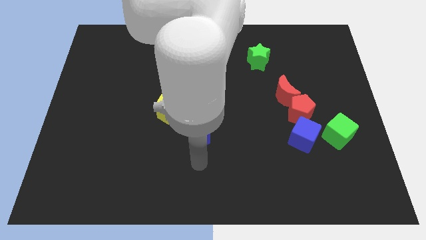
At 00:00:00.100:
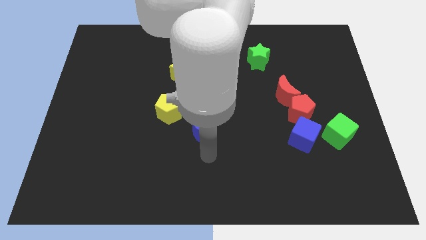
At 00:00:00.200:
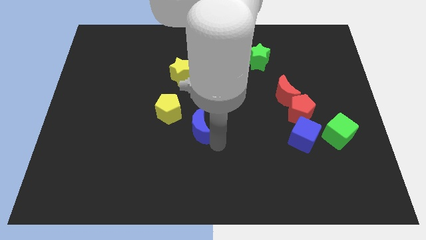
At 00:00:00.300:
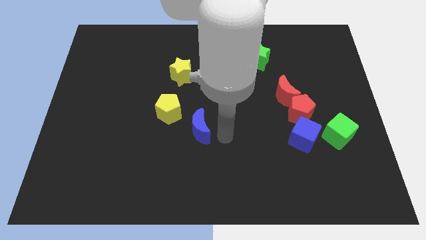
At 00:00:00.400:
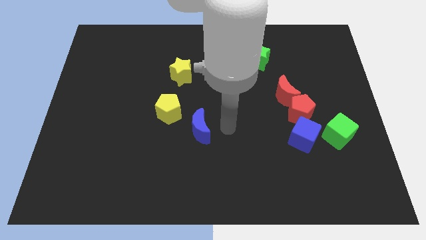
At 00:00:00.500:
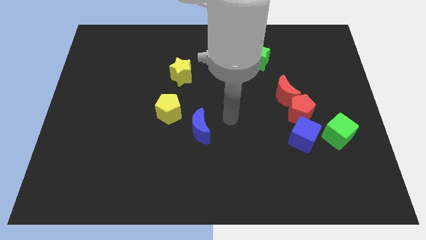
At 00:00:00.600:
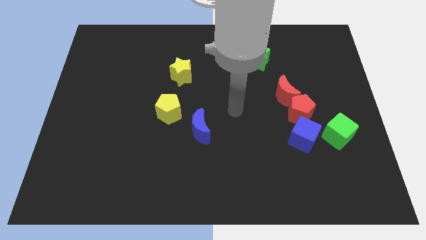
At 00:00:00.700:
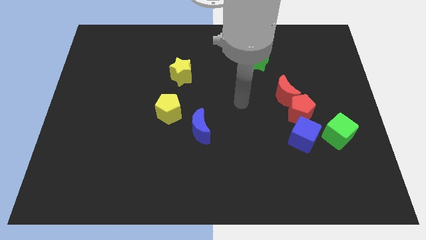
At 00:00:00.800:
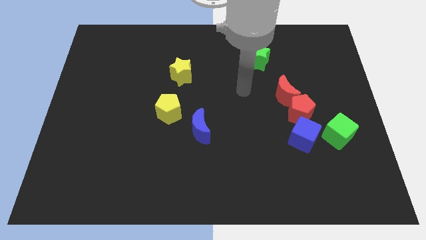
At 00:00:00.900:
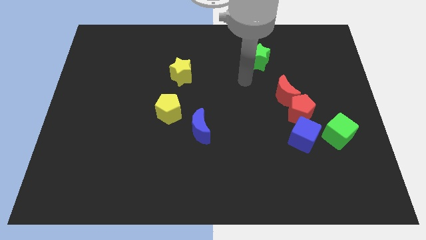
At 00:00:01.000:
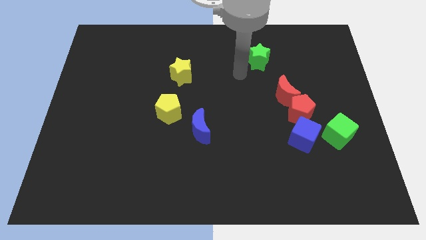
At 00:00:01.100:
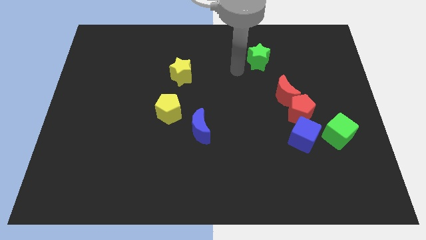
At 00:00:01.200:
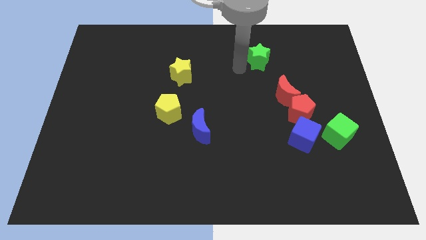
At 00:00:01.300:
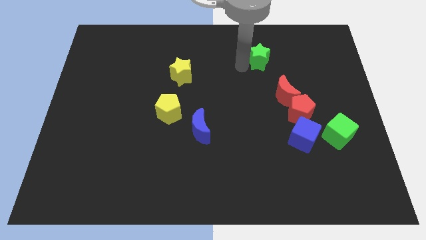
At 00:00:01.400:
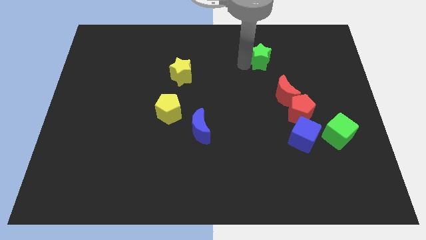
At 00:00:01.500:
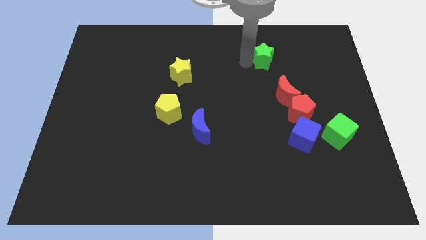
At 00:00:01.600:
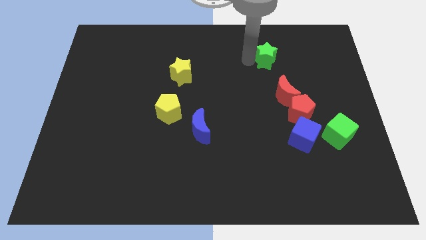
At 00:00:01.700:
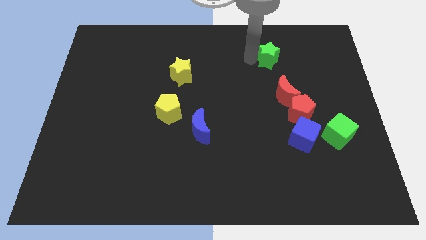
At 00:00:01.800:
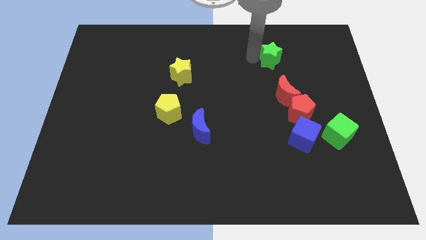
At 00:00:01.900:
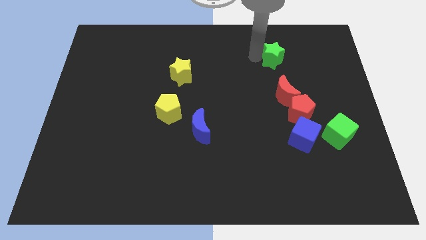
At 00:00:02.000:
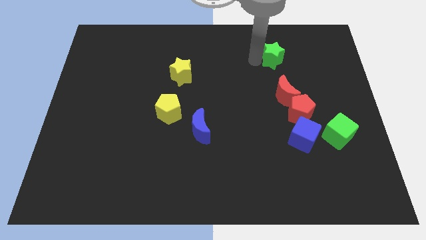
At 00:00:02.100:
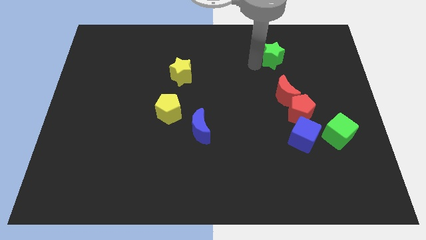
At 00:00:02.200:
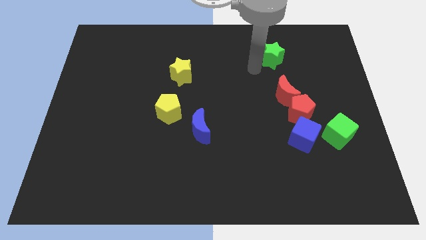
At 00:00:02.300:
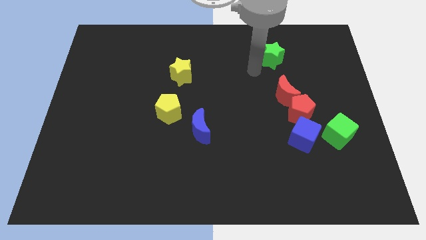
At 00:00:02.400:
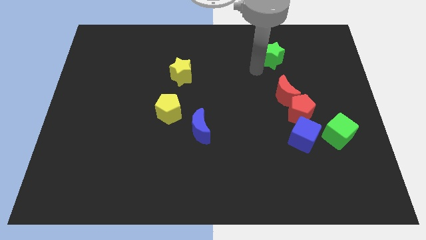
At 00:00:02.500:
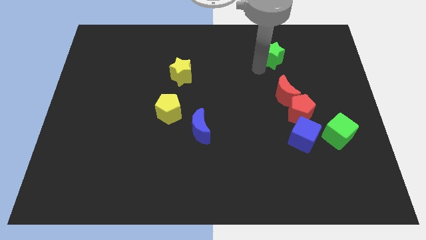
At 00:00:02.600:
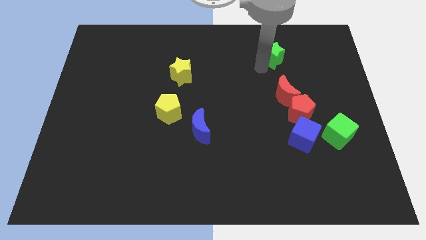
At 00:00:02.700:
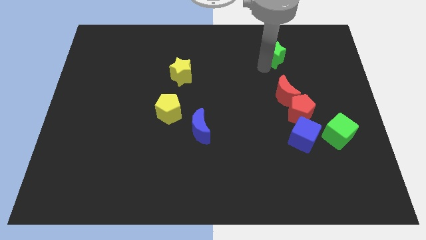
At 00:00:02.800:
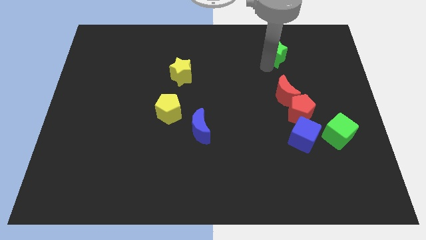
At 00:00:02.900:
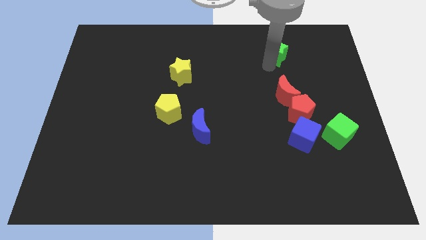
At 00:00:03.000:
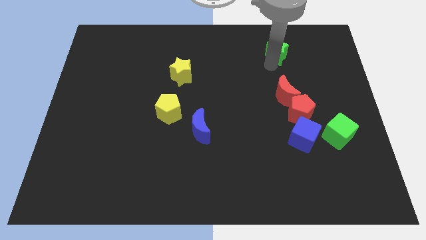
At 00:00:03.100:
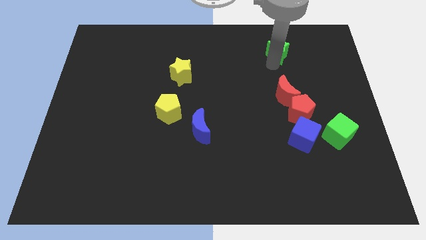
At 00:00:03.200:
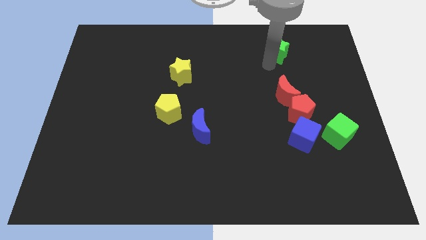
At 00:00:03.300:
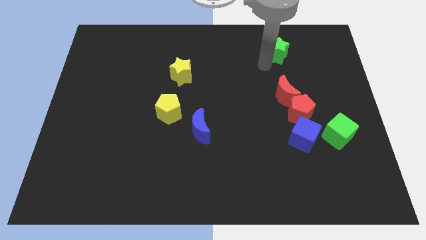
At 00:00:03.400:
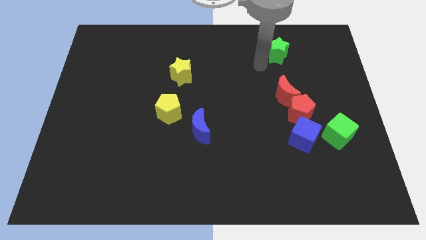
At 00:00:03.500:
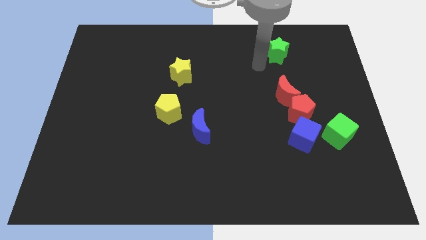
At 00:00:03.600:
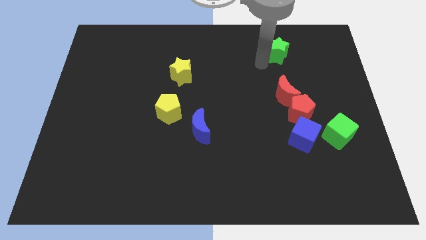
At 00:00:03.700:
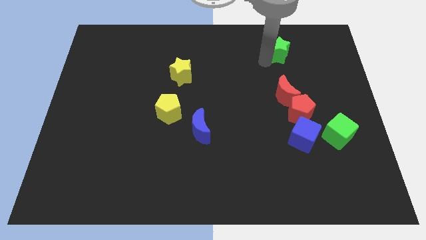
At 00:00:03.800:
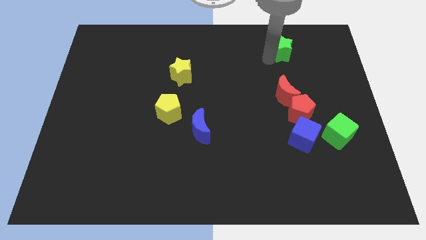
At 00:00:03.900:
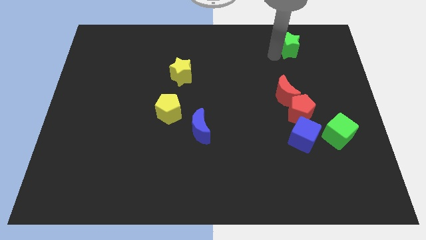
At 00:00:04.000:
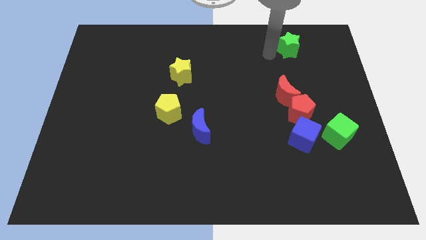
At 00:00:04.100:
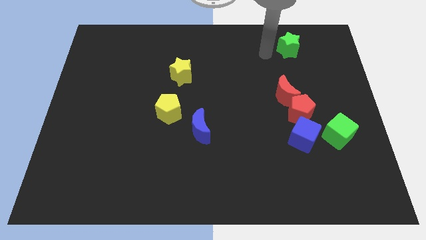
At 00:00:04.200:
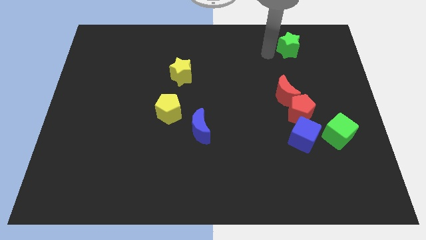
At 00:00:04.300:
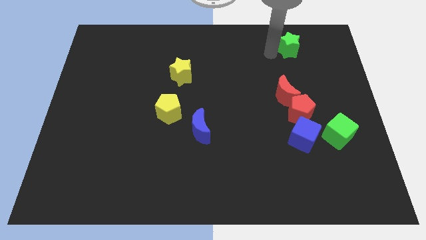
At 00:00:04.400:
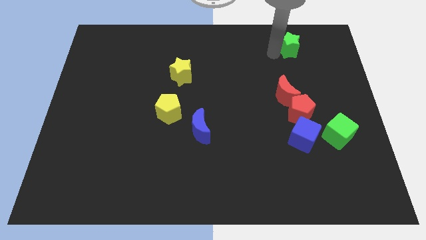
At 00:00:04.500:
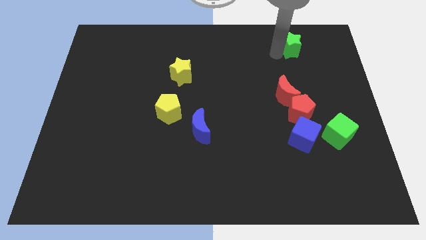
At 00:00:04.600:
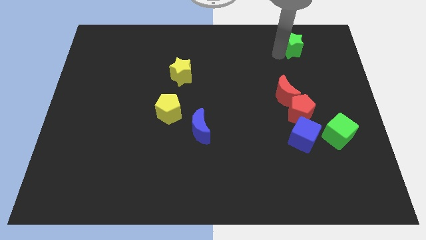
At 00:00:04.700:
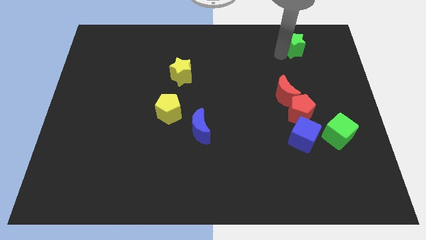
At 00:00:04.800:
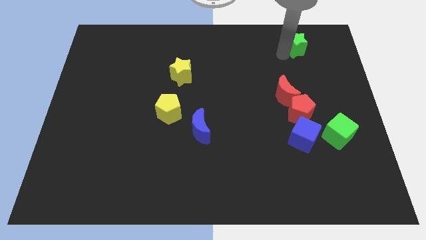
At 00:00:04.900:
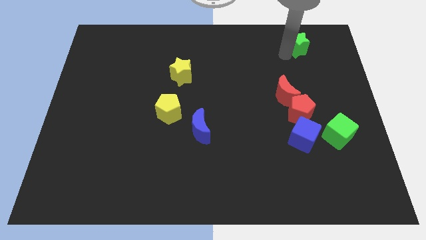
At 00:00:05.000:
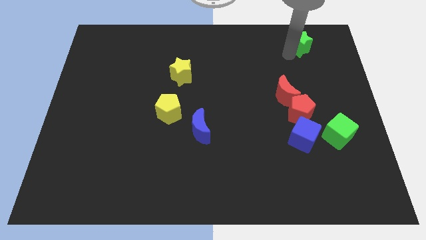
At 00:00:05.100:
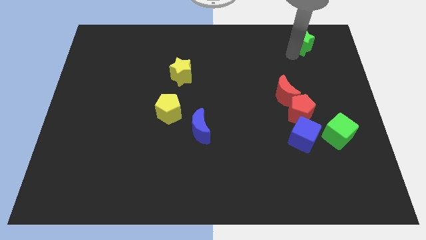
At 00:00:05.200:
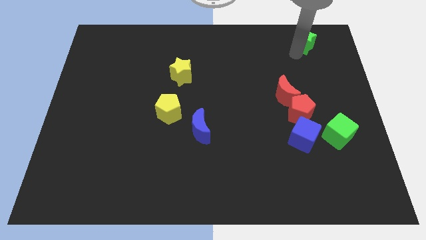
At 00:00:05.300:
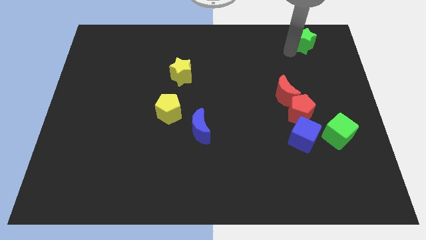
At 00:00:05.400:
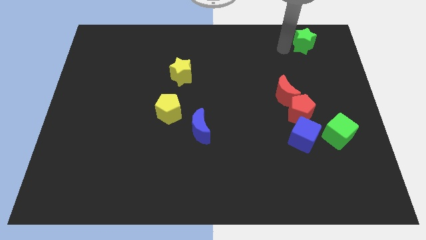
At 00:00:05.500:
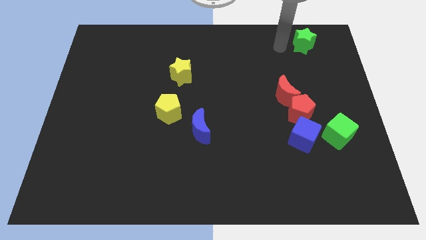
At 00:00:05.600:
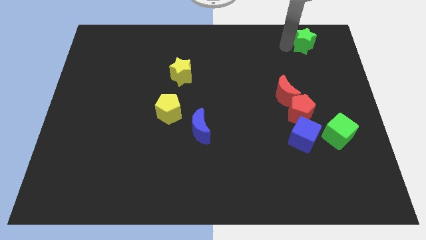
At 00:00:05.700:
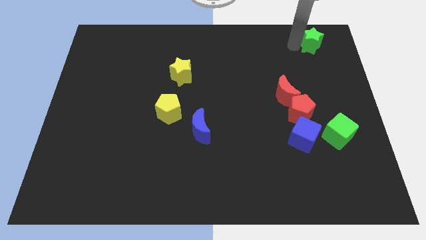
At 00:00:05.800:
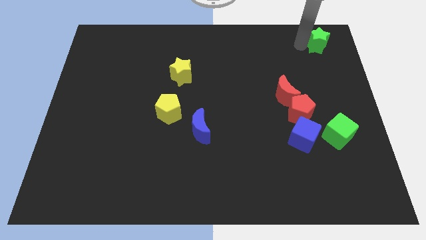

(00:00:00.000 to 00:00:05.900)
put the green star to the upper right corner

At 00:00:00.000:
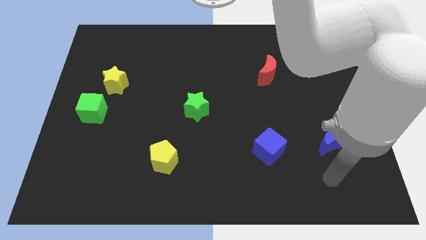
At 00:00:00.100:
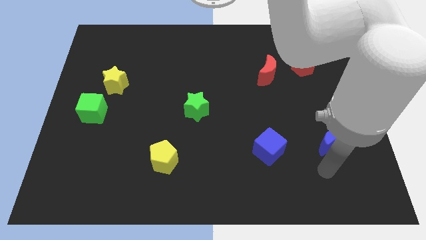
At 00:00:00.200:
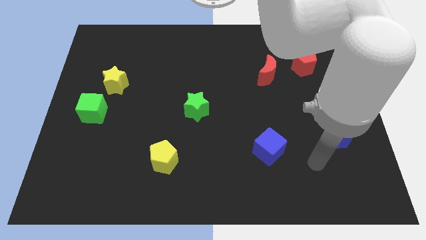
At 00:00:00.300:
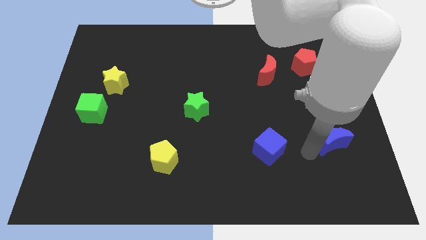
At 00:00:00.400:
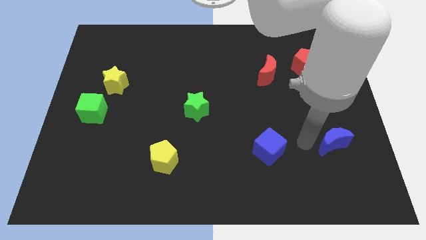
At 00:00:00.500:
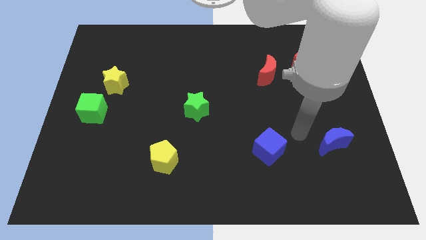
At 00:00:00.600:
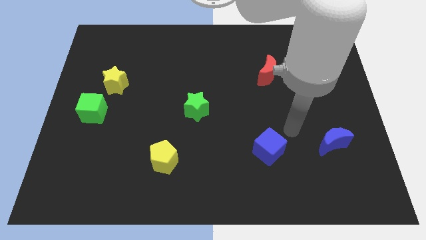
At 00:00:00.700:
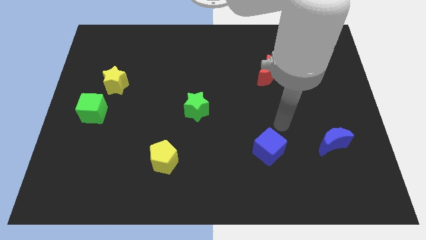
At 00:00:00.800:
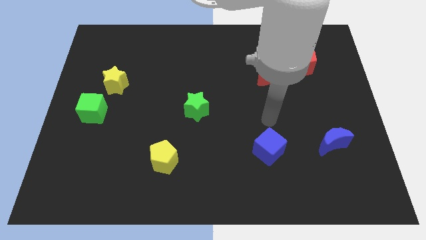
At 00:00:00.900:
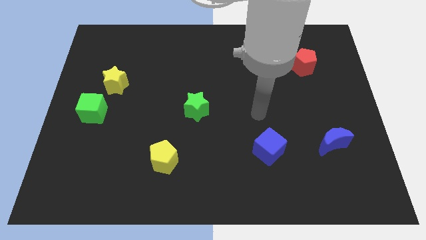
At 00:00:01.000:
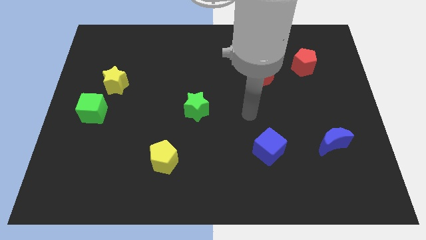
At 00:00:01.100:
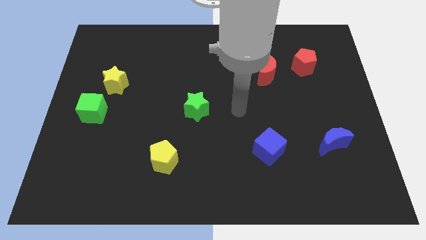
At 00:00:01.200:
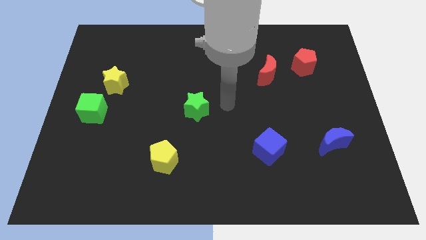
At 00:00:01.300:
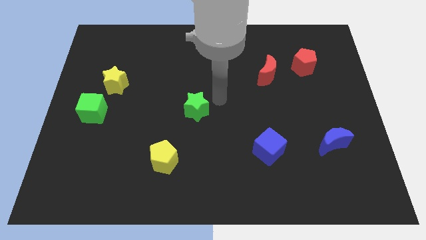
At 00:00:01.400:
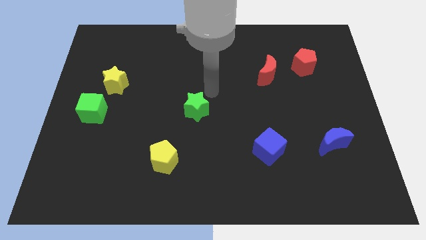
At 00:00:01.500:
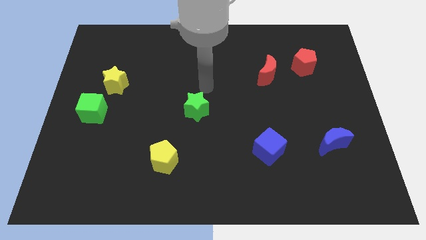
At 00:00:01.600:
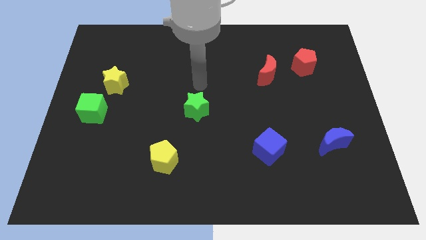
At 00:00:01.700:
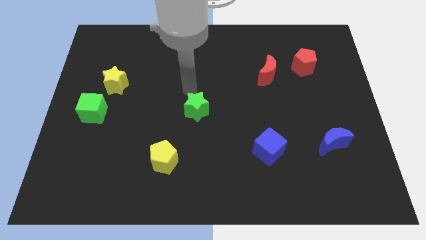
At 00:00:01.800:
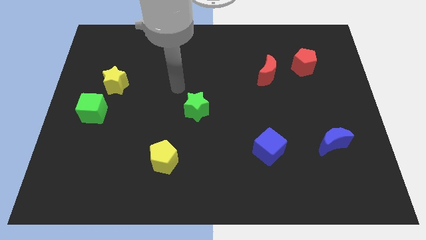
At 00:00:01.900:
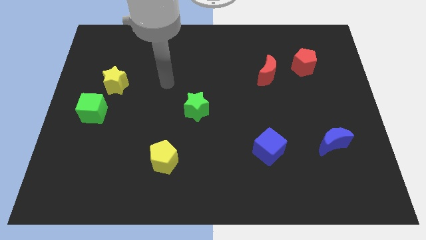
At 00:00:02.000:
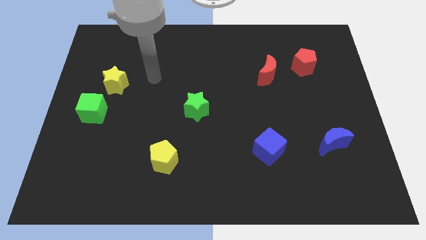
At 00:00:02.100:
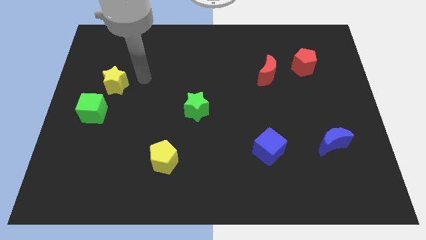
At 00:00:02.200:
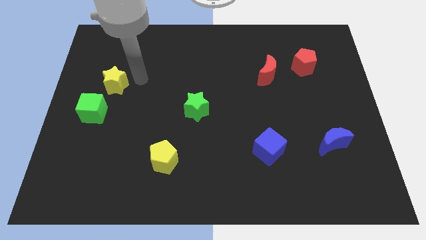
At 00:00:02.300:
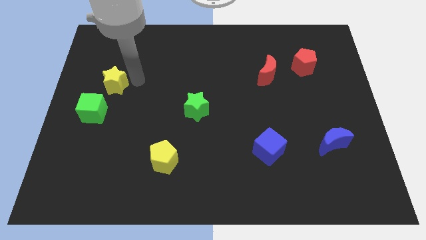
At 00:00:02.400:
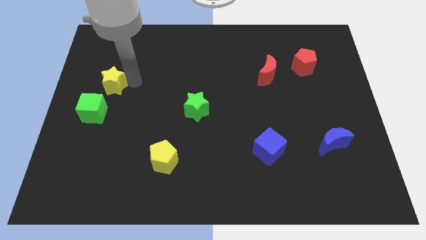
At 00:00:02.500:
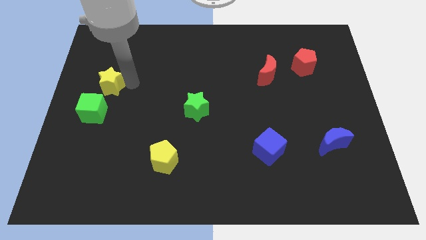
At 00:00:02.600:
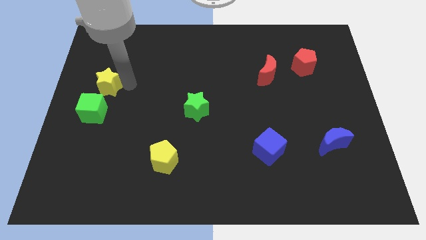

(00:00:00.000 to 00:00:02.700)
put the yellow star to the left side
